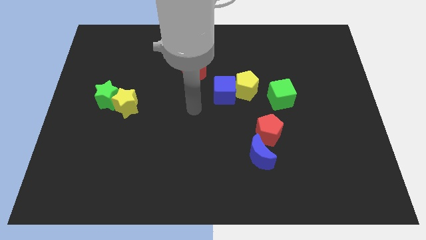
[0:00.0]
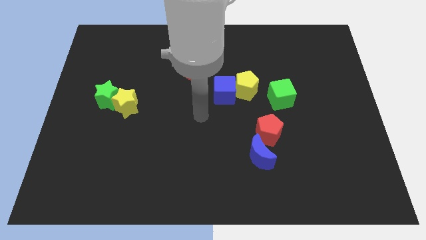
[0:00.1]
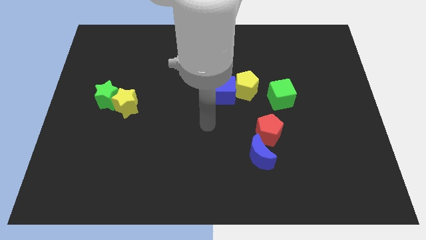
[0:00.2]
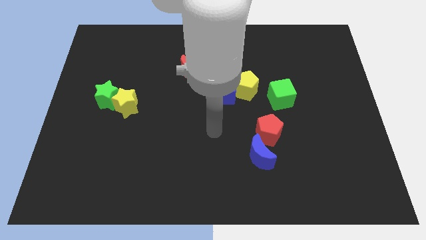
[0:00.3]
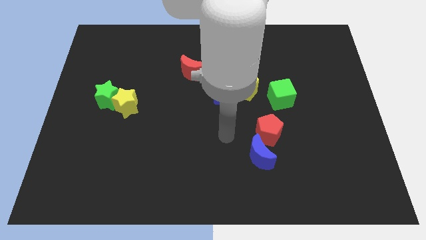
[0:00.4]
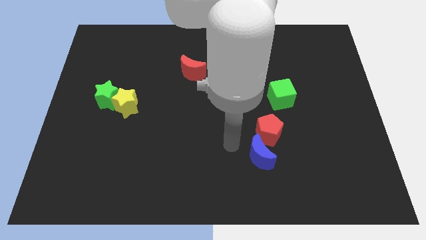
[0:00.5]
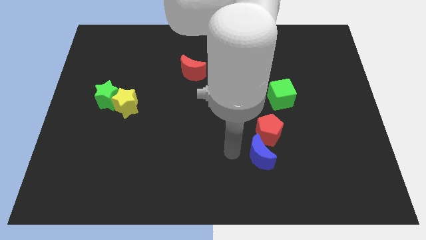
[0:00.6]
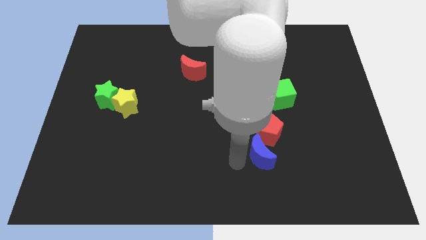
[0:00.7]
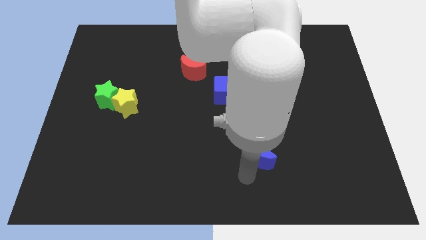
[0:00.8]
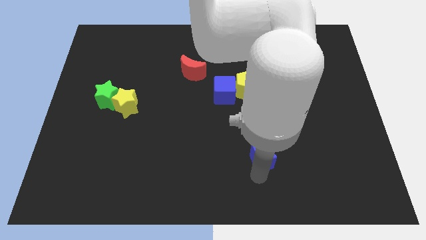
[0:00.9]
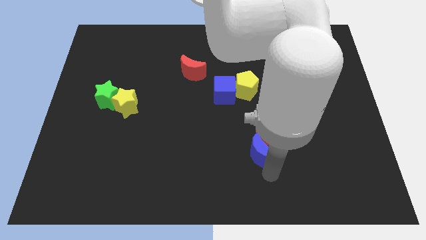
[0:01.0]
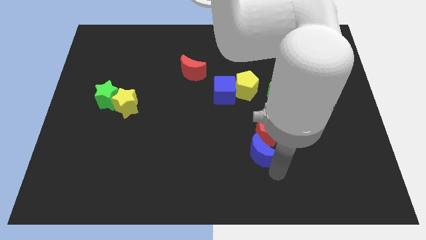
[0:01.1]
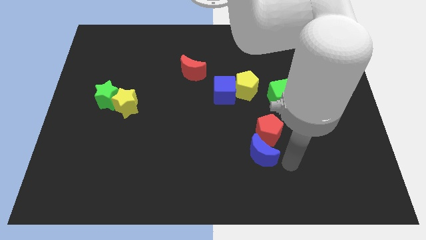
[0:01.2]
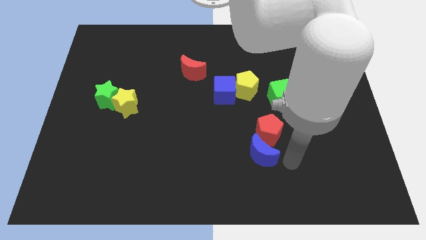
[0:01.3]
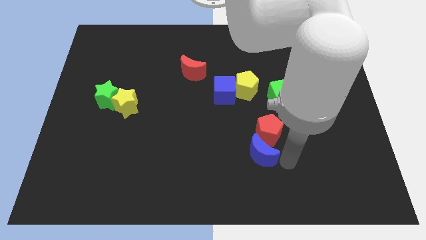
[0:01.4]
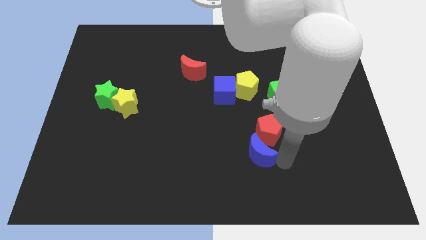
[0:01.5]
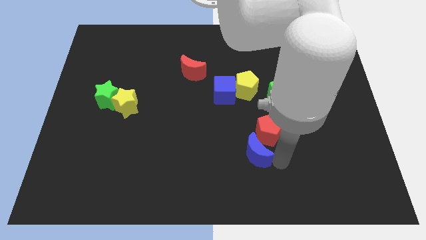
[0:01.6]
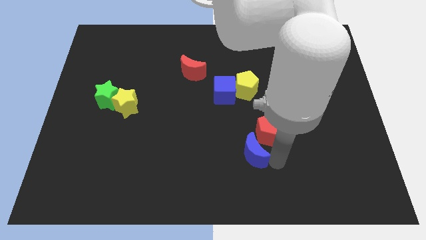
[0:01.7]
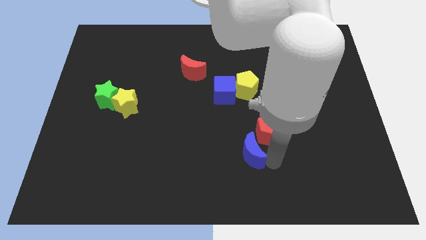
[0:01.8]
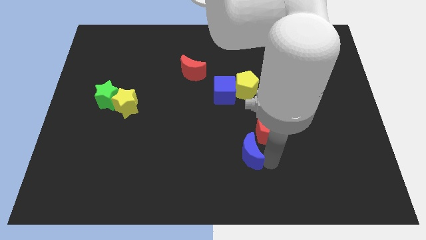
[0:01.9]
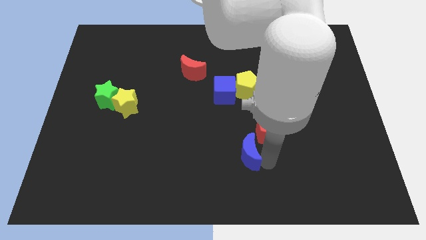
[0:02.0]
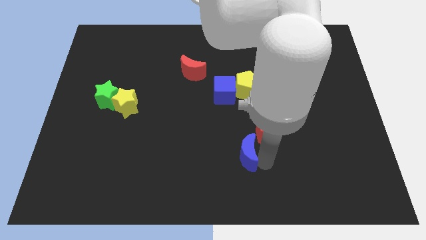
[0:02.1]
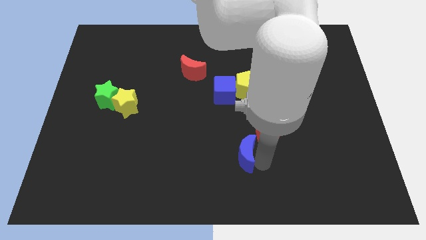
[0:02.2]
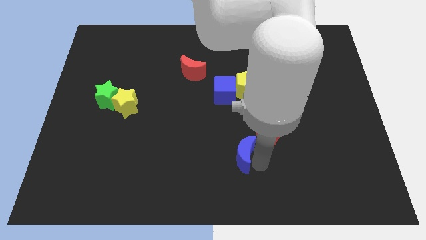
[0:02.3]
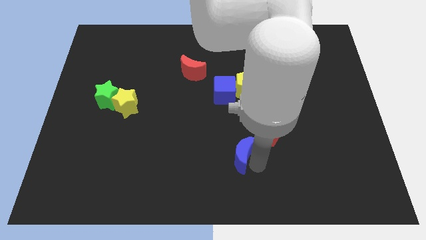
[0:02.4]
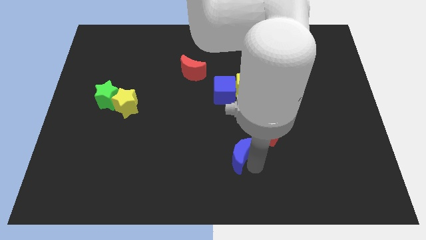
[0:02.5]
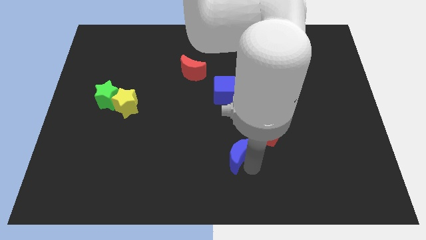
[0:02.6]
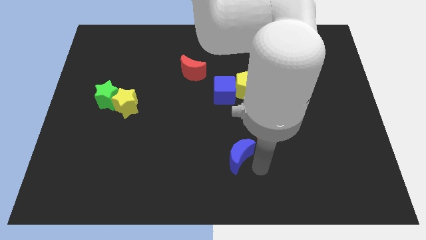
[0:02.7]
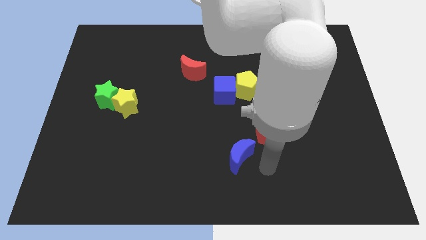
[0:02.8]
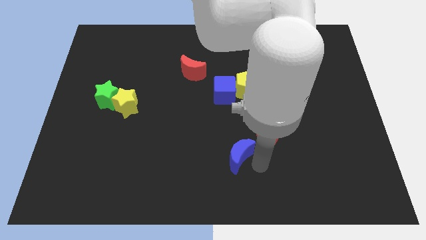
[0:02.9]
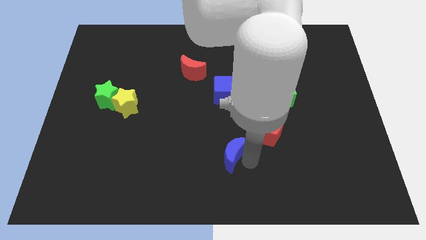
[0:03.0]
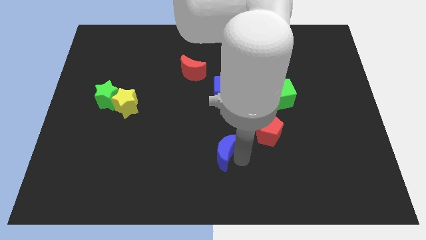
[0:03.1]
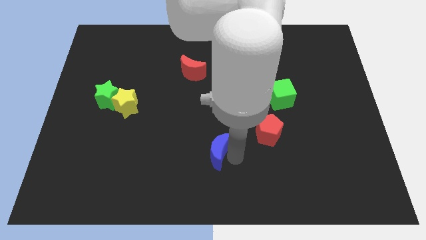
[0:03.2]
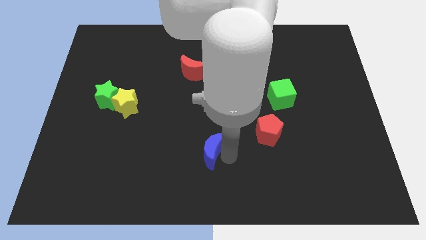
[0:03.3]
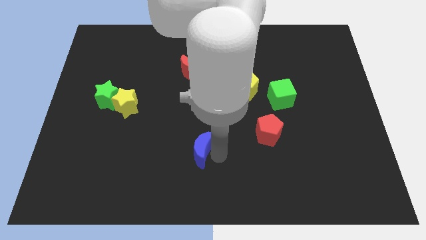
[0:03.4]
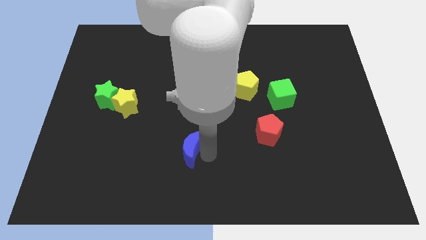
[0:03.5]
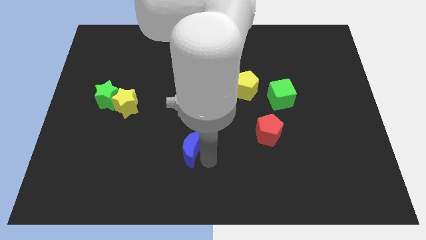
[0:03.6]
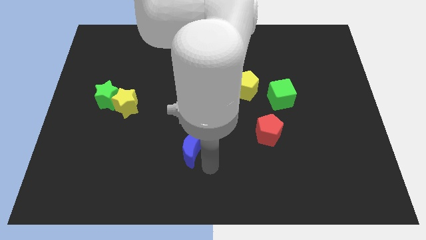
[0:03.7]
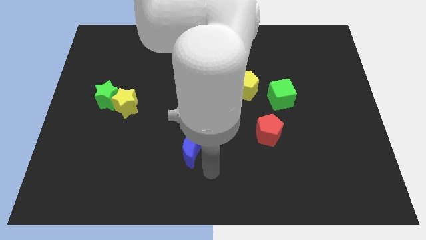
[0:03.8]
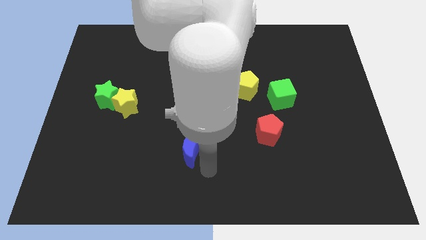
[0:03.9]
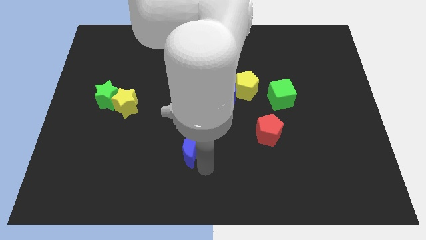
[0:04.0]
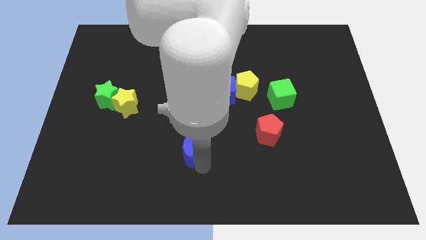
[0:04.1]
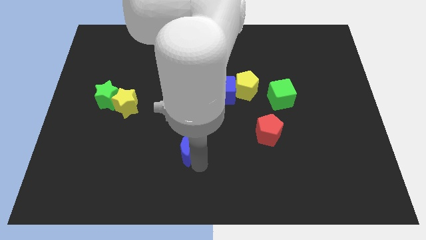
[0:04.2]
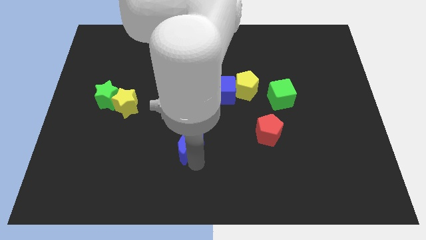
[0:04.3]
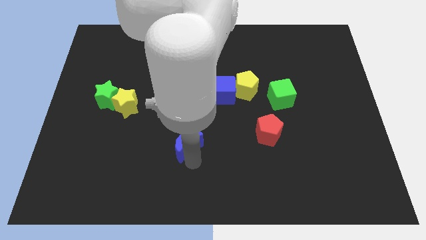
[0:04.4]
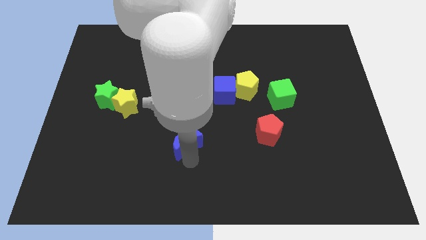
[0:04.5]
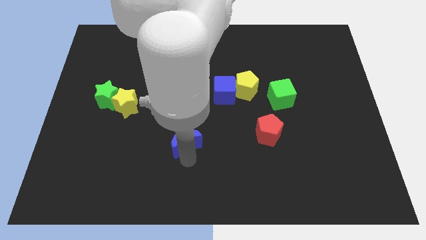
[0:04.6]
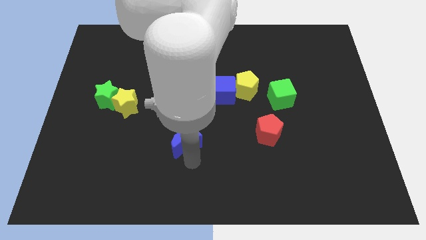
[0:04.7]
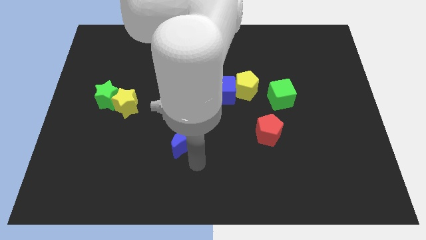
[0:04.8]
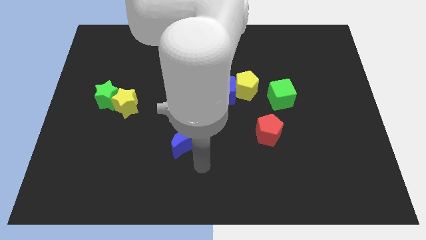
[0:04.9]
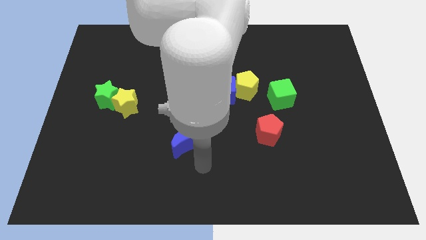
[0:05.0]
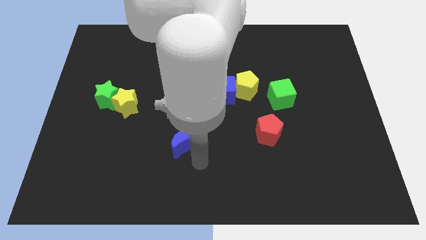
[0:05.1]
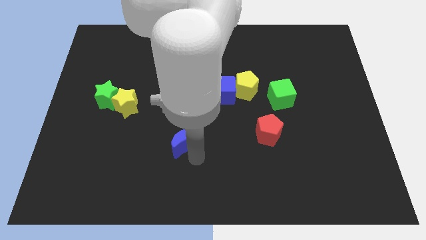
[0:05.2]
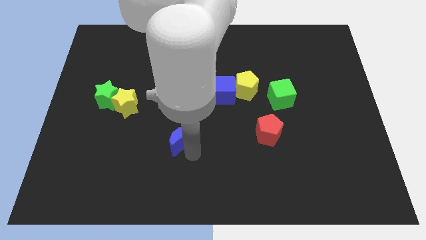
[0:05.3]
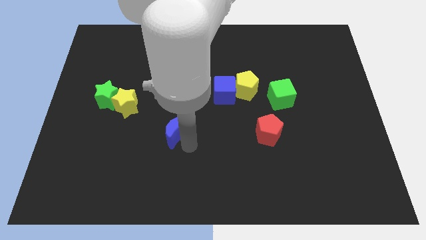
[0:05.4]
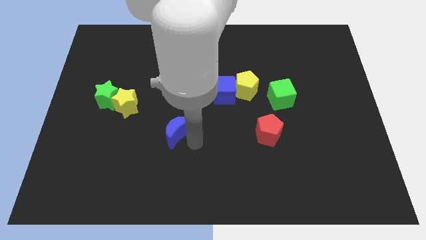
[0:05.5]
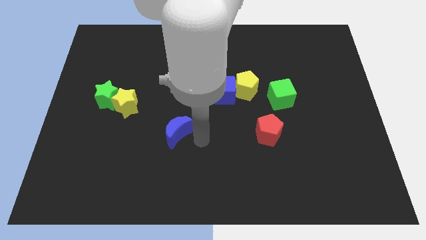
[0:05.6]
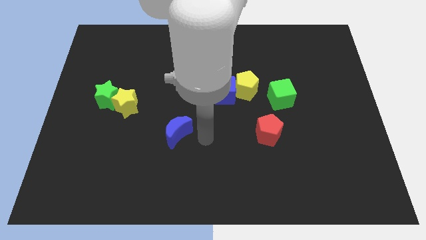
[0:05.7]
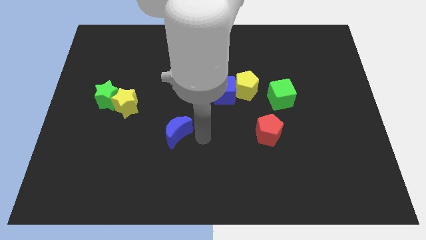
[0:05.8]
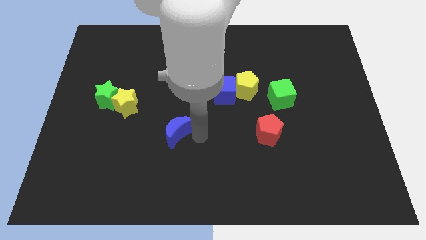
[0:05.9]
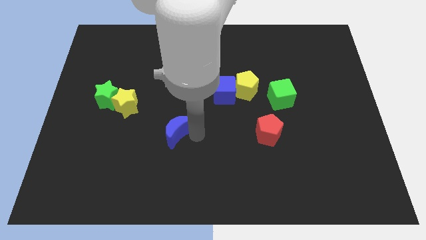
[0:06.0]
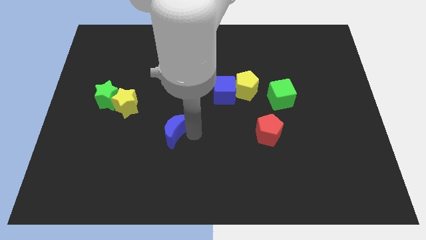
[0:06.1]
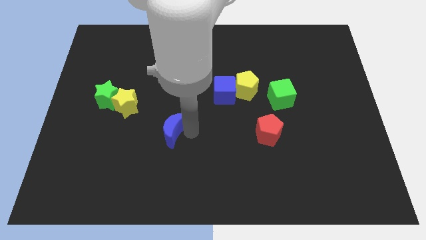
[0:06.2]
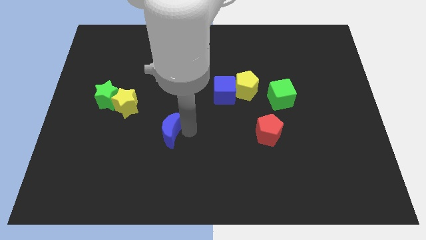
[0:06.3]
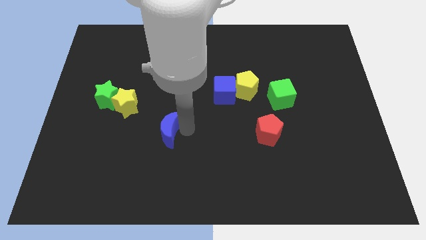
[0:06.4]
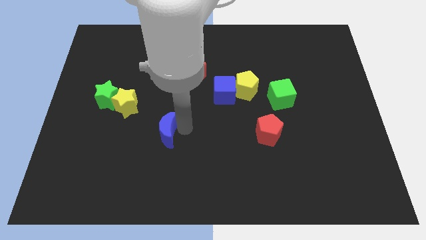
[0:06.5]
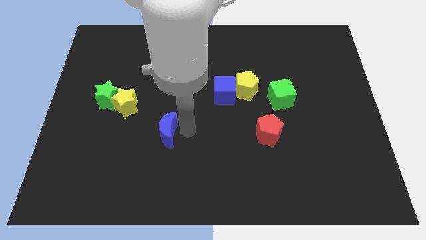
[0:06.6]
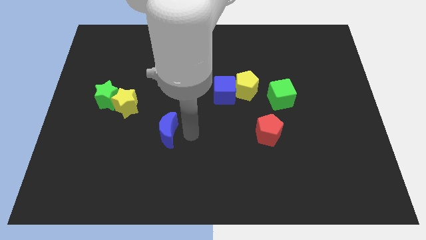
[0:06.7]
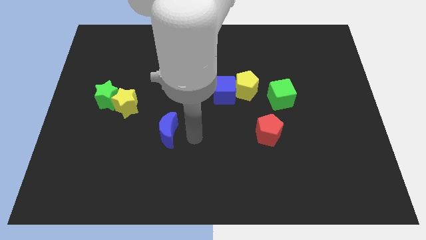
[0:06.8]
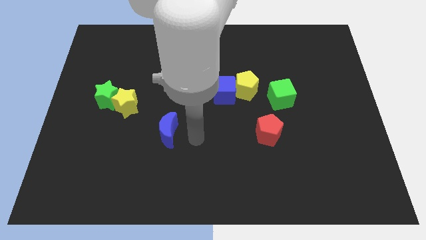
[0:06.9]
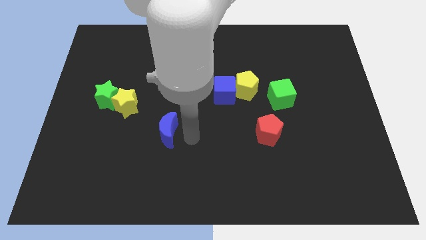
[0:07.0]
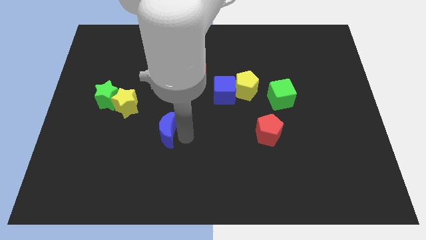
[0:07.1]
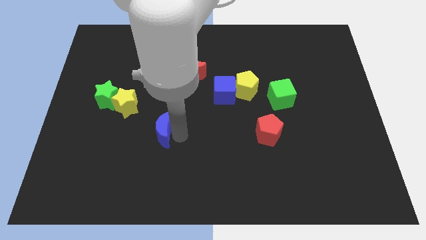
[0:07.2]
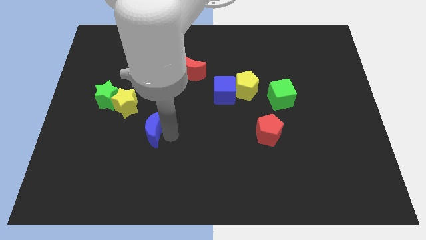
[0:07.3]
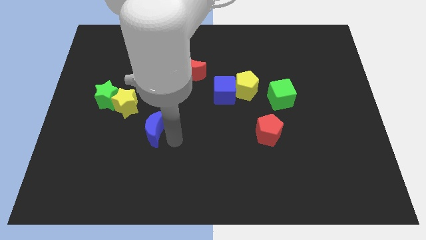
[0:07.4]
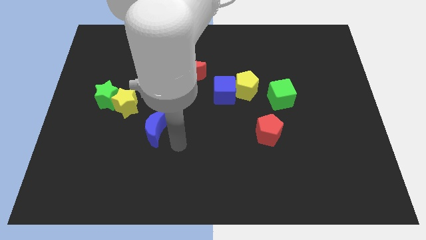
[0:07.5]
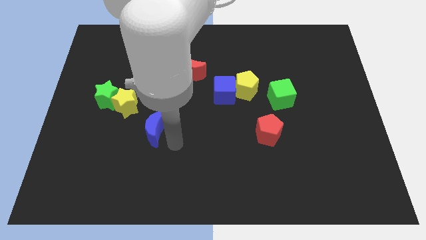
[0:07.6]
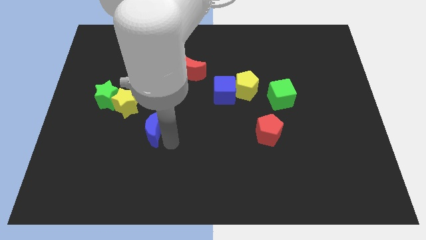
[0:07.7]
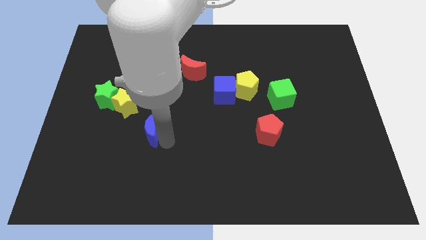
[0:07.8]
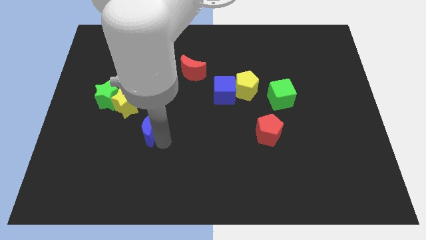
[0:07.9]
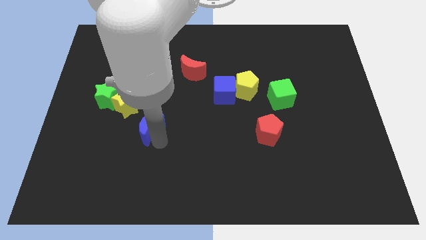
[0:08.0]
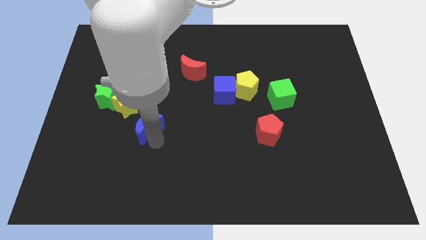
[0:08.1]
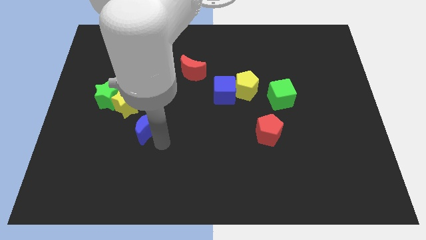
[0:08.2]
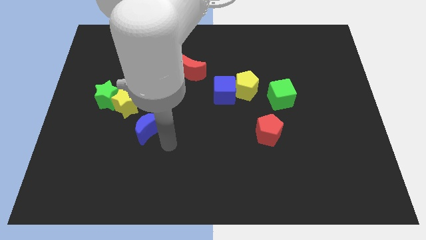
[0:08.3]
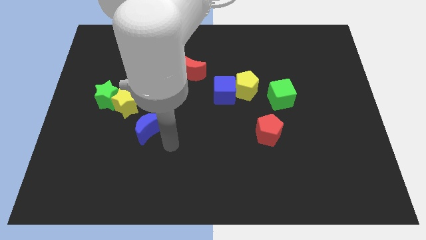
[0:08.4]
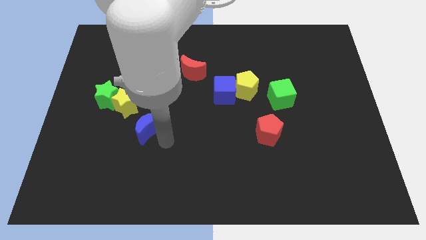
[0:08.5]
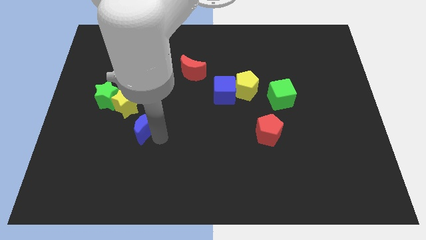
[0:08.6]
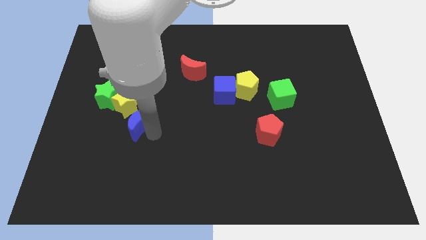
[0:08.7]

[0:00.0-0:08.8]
slide the blue moon to the bottom right side of the green star
